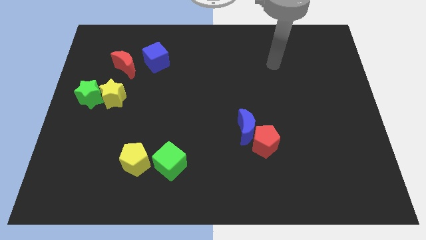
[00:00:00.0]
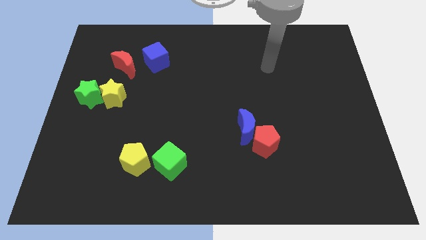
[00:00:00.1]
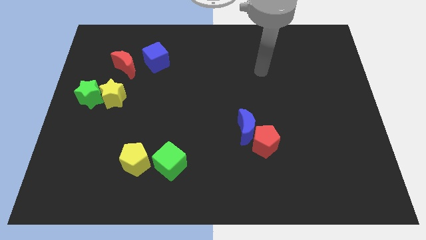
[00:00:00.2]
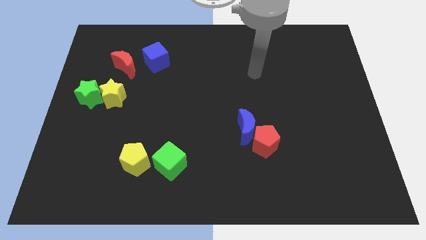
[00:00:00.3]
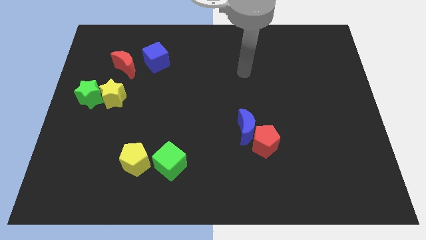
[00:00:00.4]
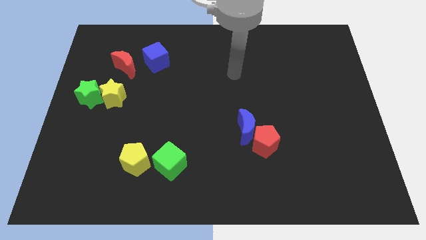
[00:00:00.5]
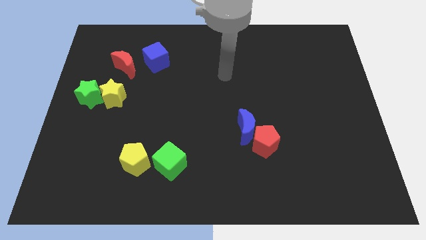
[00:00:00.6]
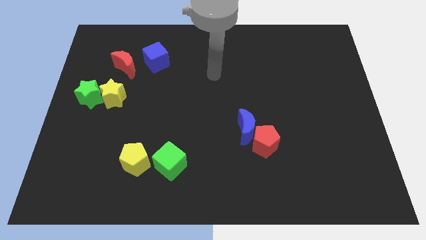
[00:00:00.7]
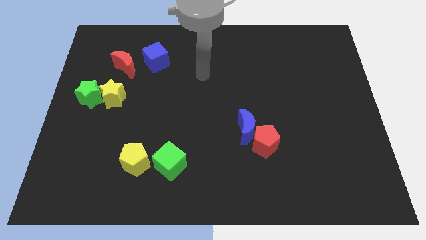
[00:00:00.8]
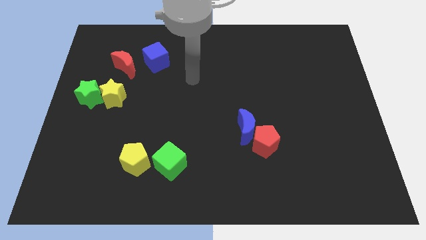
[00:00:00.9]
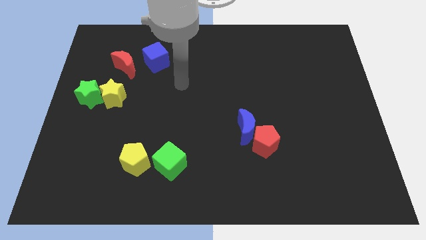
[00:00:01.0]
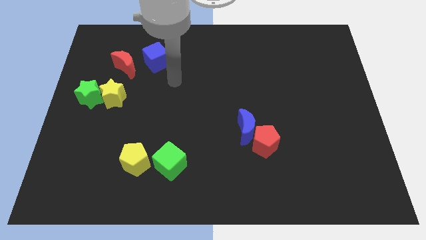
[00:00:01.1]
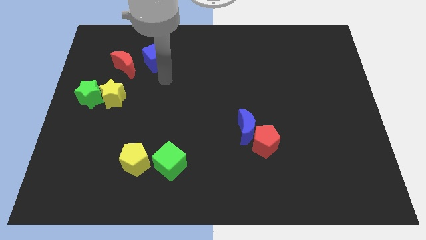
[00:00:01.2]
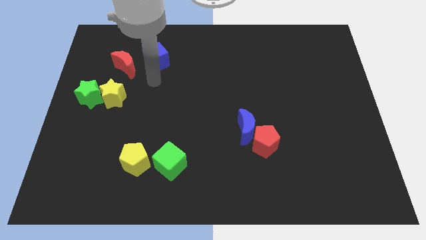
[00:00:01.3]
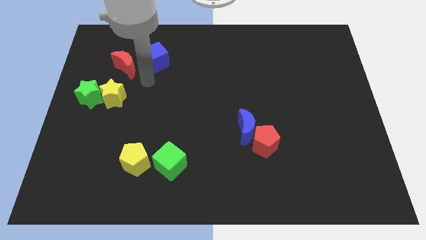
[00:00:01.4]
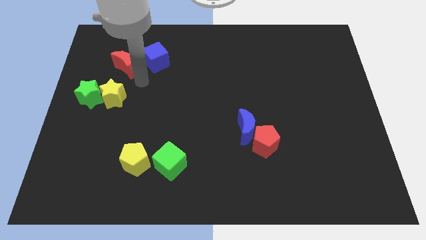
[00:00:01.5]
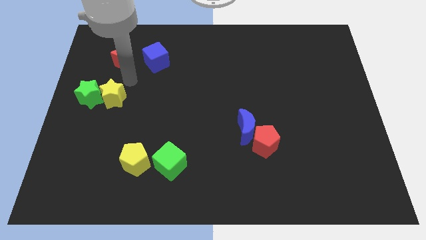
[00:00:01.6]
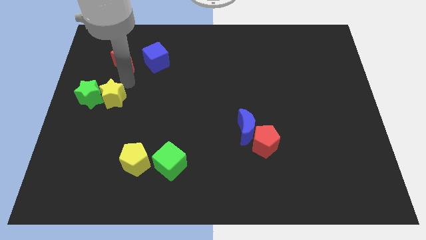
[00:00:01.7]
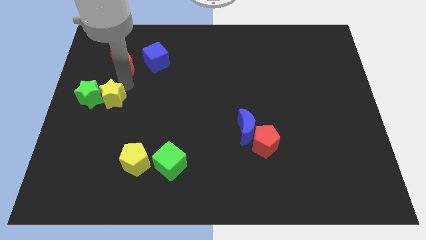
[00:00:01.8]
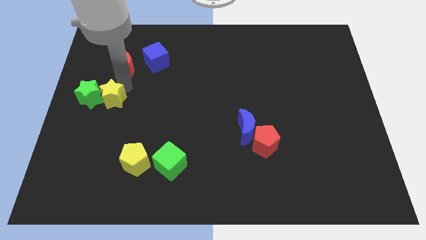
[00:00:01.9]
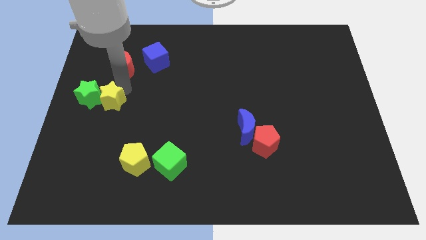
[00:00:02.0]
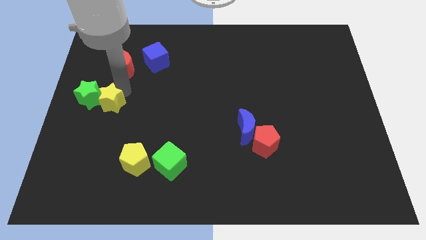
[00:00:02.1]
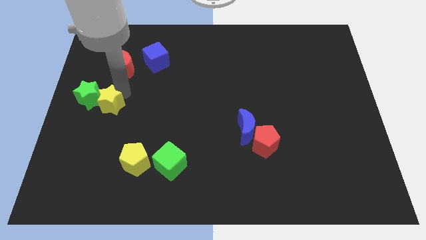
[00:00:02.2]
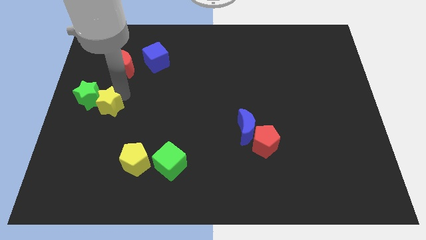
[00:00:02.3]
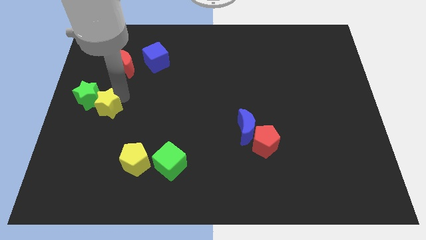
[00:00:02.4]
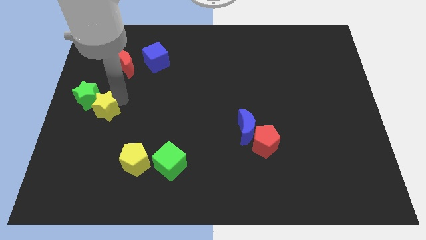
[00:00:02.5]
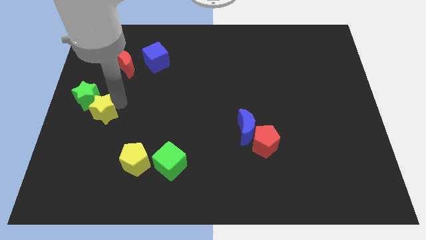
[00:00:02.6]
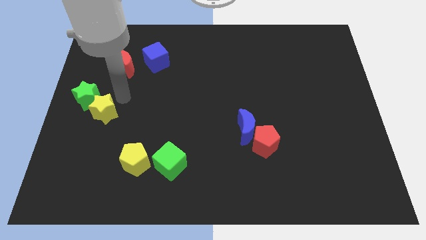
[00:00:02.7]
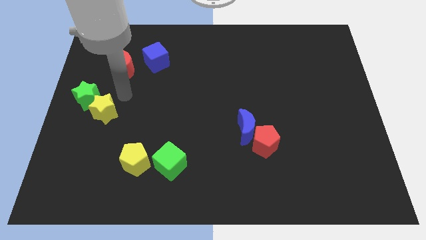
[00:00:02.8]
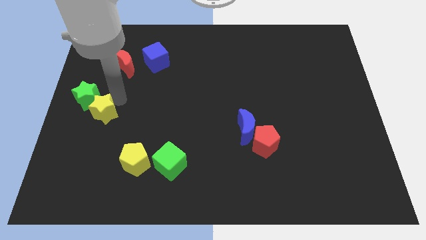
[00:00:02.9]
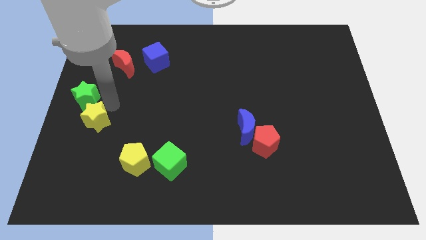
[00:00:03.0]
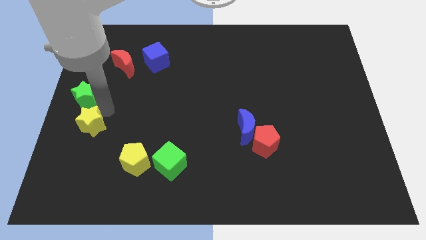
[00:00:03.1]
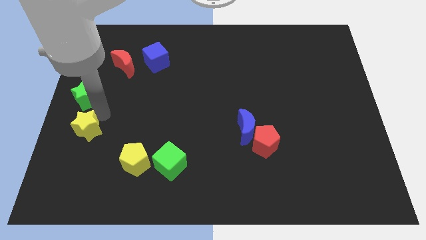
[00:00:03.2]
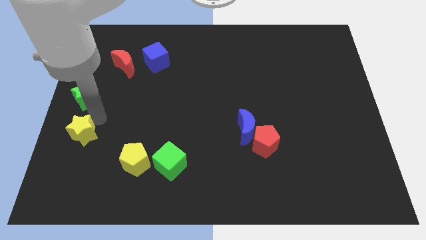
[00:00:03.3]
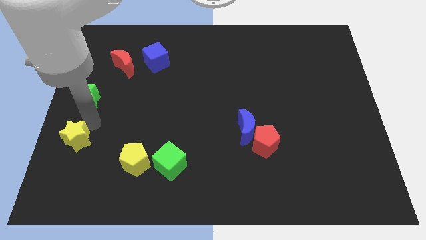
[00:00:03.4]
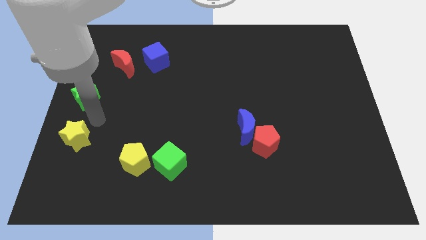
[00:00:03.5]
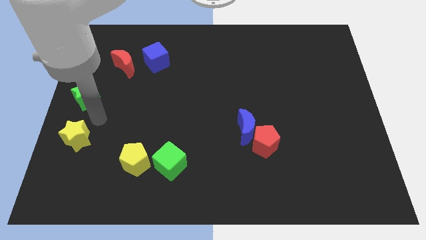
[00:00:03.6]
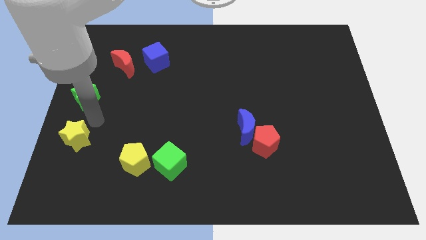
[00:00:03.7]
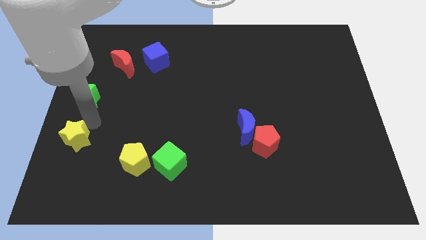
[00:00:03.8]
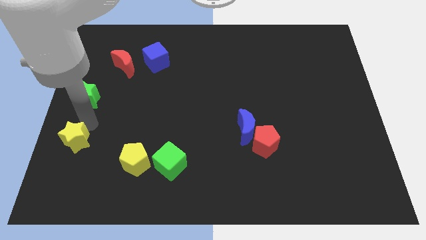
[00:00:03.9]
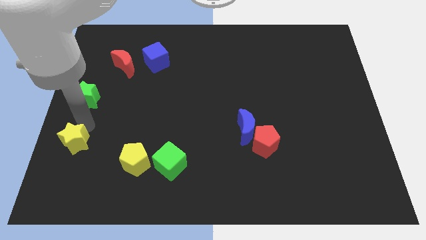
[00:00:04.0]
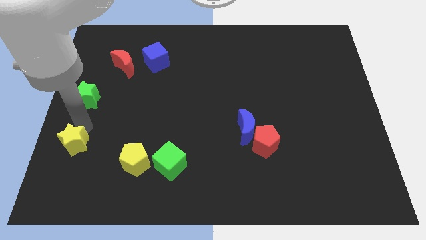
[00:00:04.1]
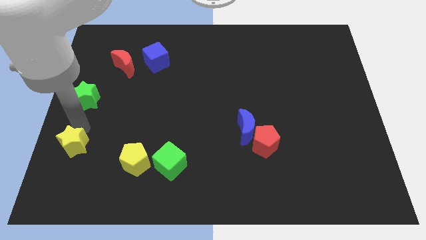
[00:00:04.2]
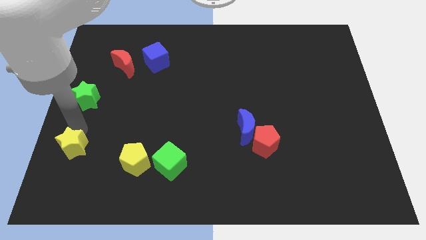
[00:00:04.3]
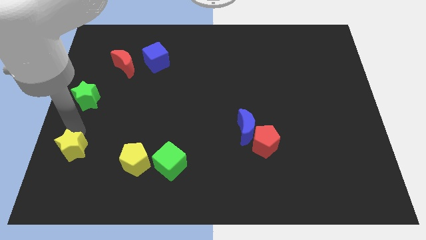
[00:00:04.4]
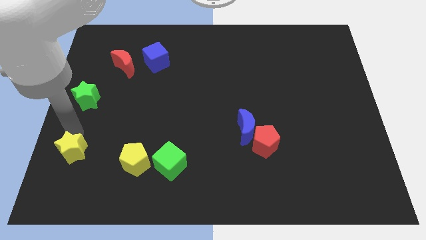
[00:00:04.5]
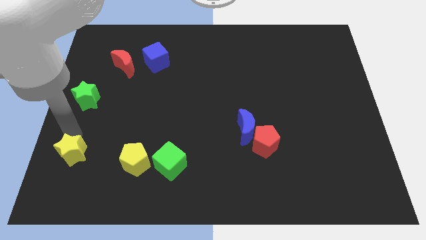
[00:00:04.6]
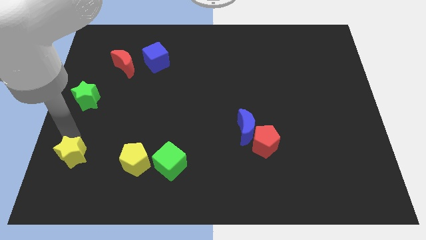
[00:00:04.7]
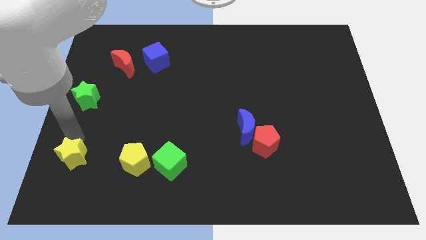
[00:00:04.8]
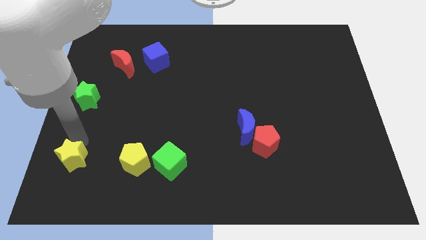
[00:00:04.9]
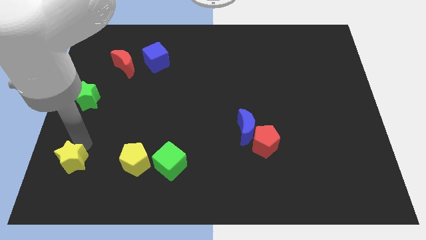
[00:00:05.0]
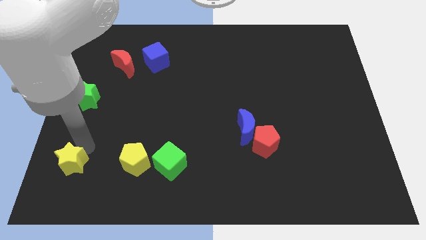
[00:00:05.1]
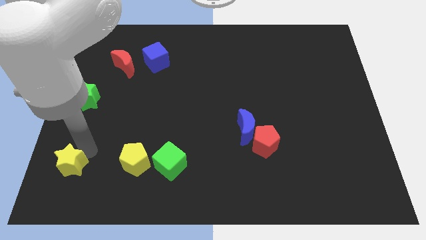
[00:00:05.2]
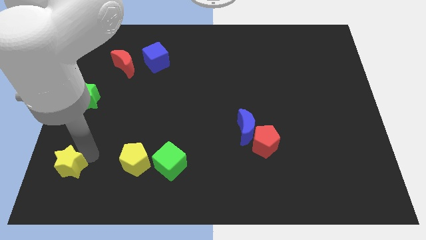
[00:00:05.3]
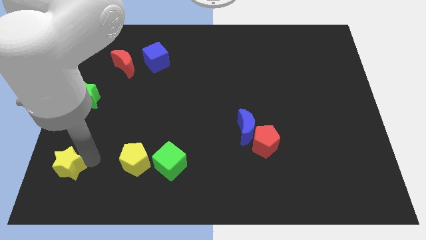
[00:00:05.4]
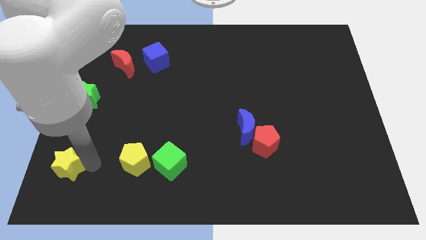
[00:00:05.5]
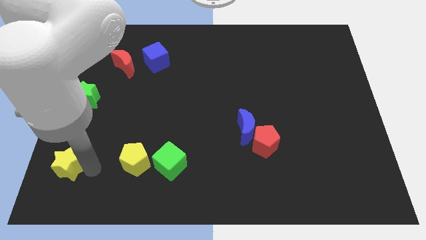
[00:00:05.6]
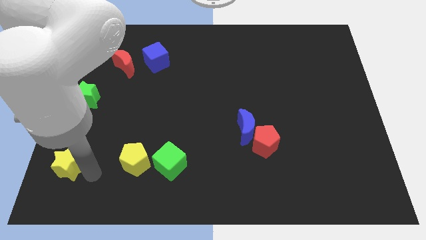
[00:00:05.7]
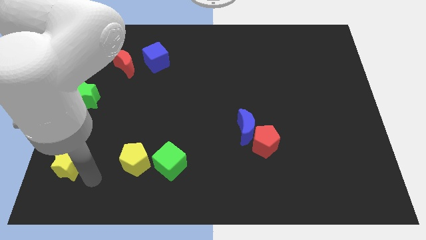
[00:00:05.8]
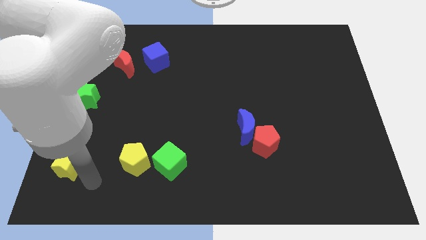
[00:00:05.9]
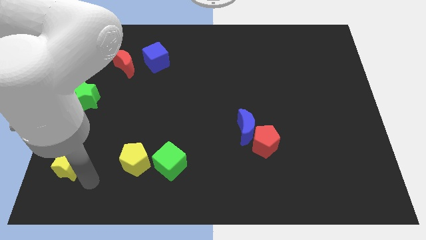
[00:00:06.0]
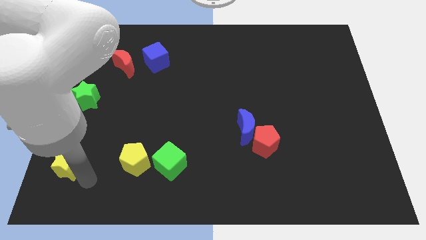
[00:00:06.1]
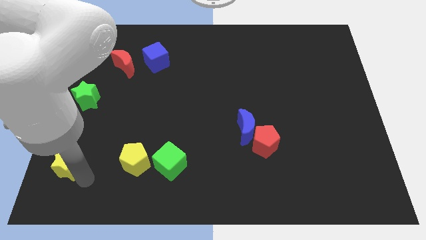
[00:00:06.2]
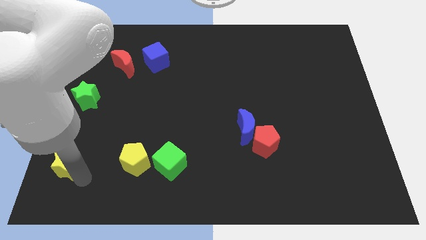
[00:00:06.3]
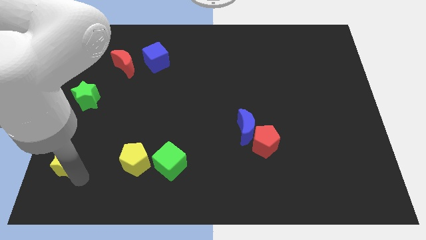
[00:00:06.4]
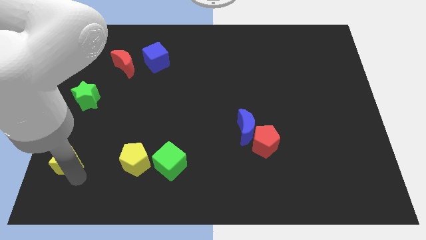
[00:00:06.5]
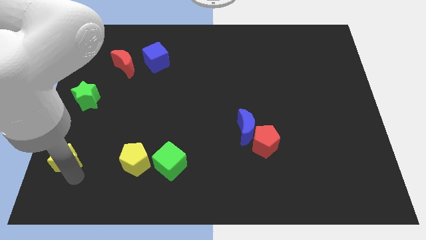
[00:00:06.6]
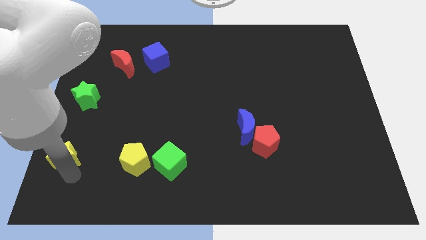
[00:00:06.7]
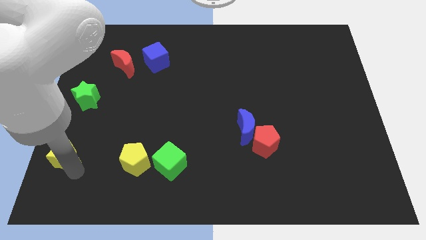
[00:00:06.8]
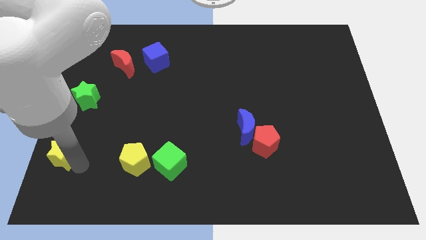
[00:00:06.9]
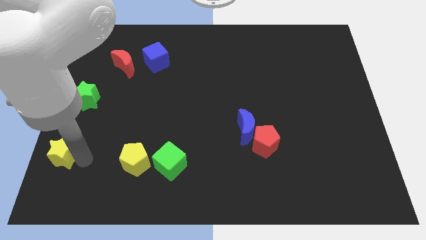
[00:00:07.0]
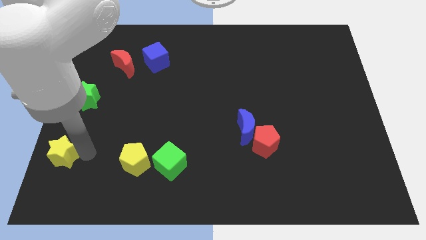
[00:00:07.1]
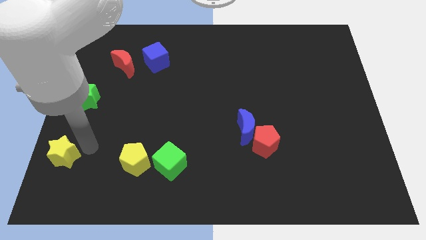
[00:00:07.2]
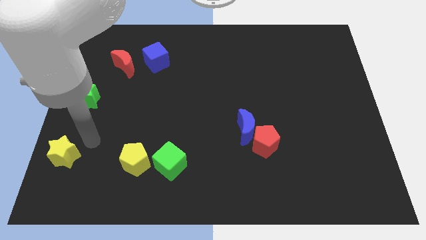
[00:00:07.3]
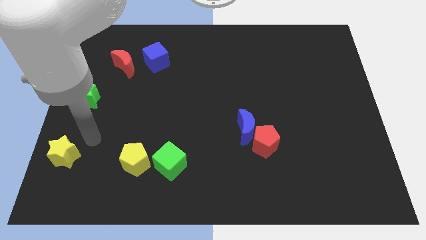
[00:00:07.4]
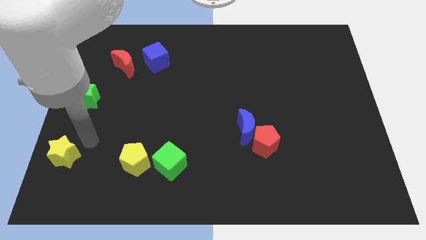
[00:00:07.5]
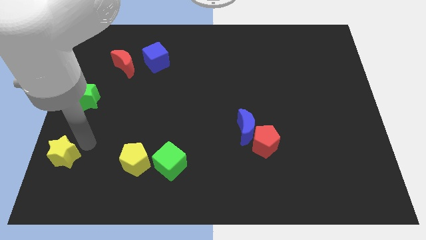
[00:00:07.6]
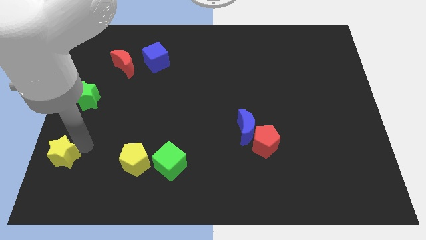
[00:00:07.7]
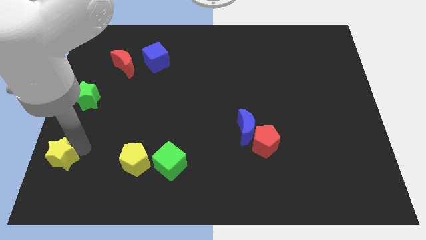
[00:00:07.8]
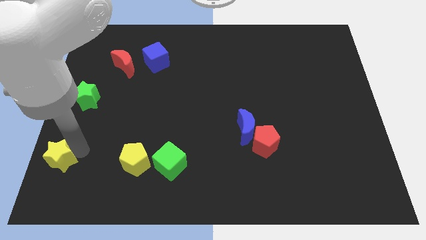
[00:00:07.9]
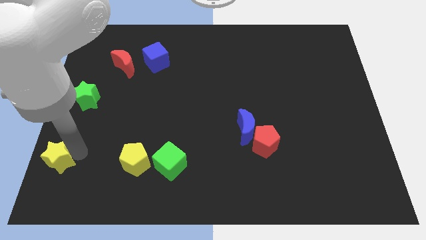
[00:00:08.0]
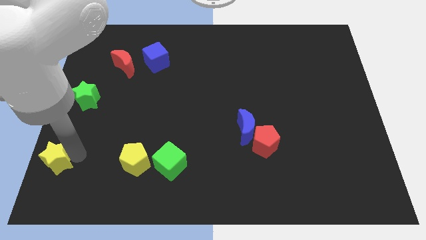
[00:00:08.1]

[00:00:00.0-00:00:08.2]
push the yellow star to the lower left corner

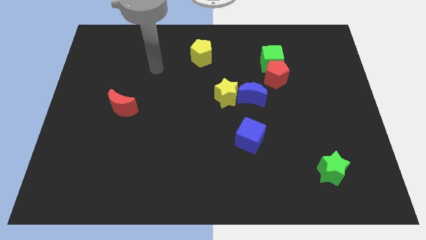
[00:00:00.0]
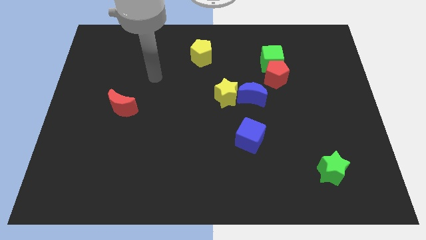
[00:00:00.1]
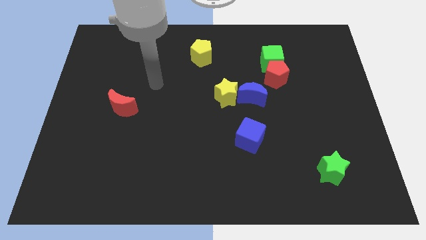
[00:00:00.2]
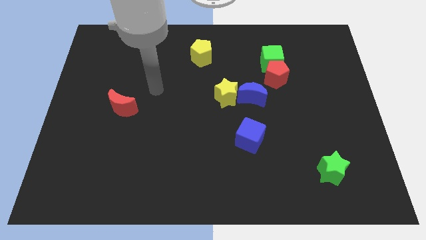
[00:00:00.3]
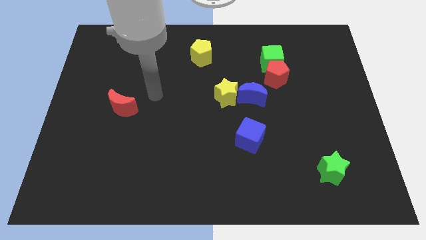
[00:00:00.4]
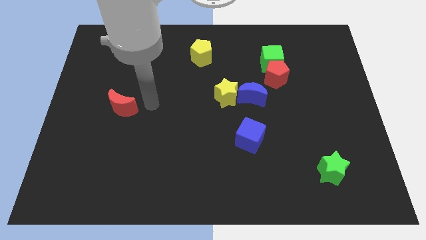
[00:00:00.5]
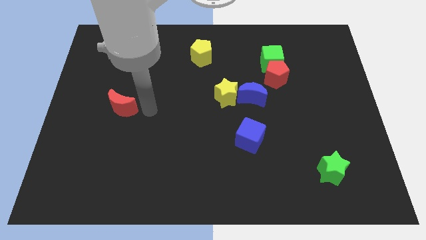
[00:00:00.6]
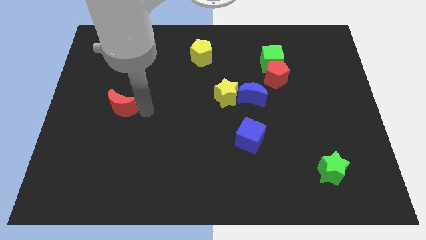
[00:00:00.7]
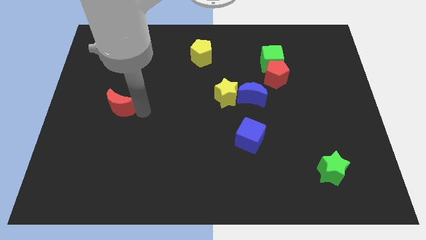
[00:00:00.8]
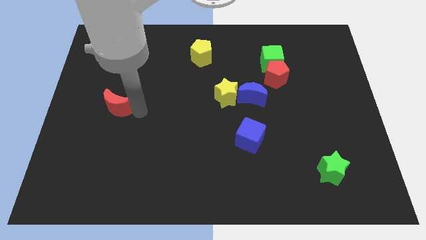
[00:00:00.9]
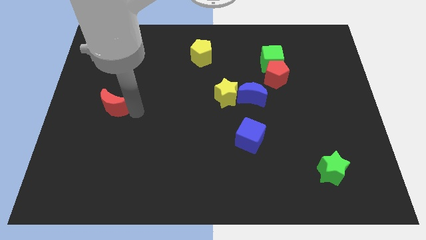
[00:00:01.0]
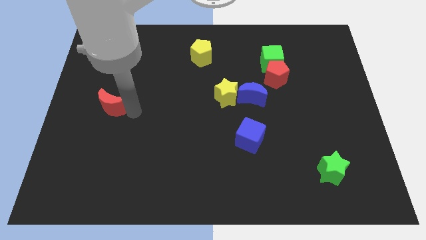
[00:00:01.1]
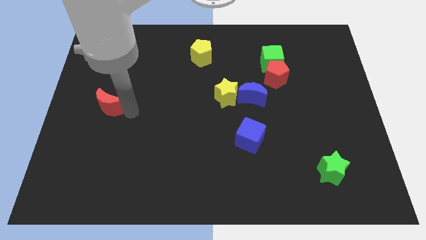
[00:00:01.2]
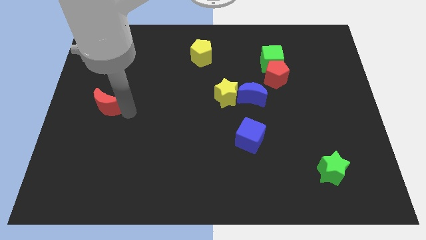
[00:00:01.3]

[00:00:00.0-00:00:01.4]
put the red moon to the left side
